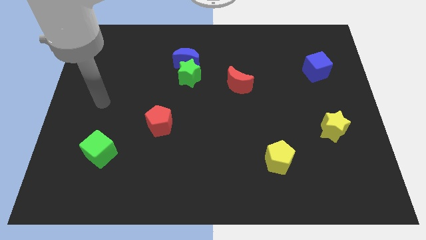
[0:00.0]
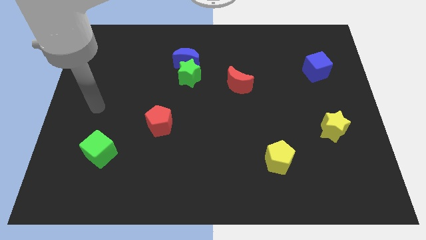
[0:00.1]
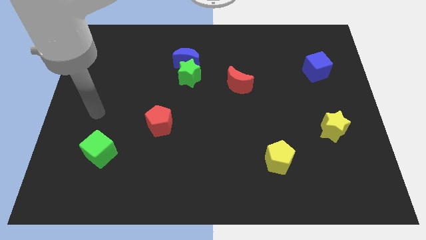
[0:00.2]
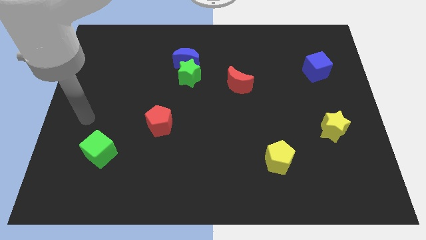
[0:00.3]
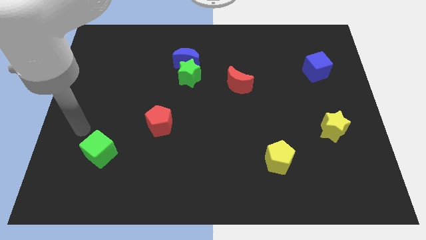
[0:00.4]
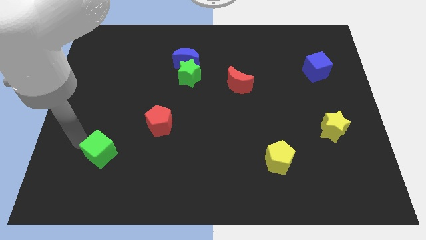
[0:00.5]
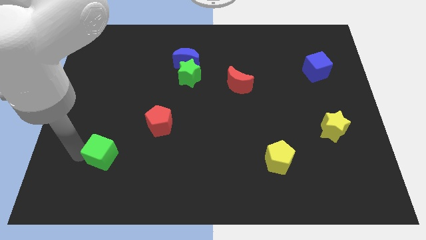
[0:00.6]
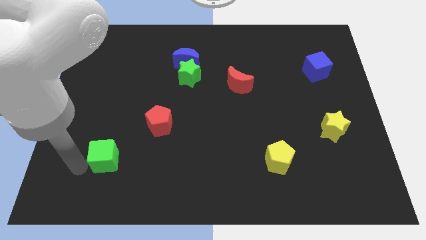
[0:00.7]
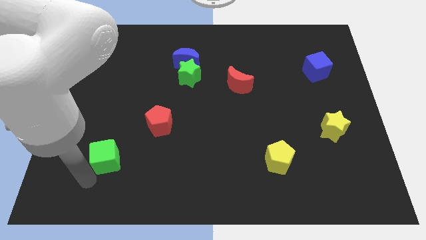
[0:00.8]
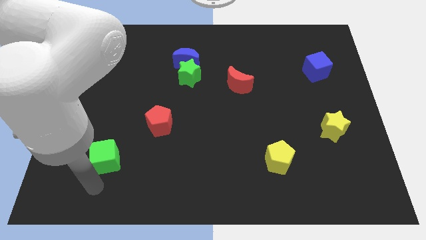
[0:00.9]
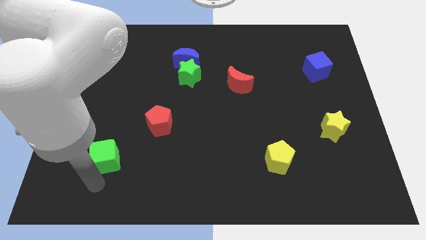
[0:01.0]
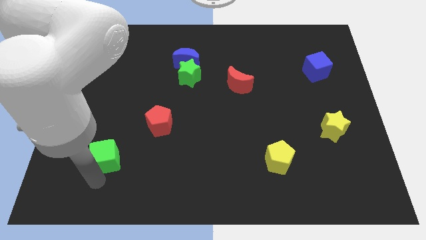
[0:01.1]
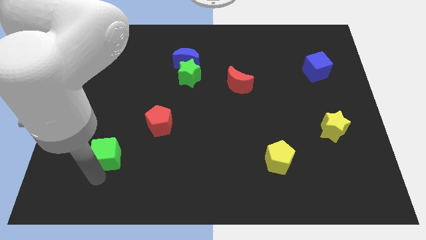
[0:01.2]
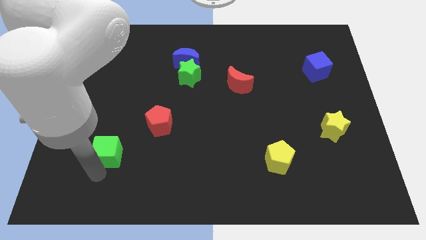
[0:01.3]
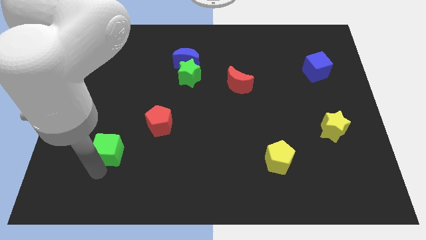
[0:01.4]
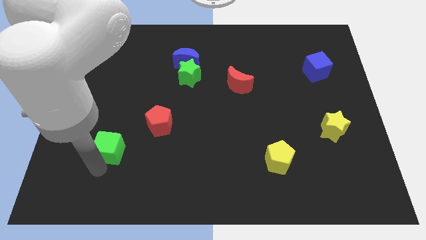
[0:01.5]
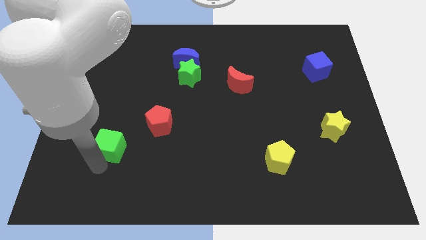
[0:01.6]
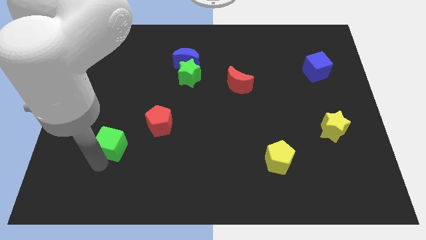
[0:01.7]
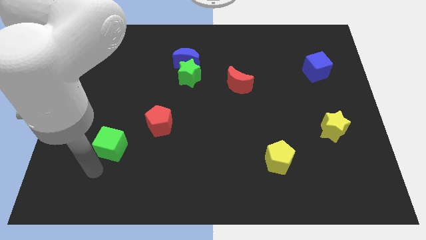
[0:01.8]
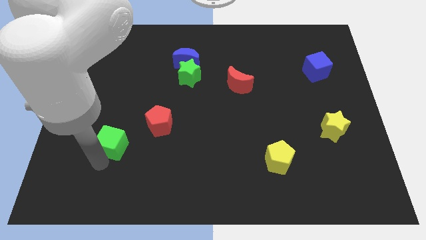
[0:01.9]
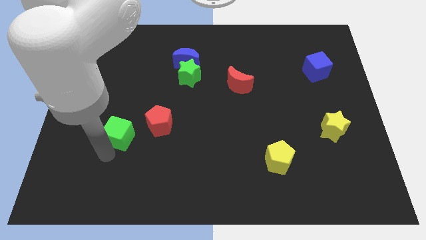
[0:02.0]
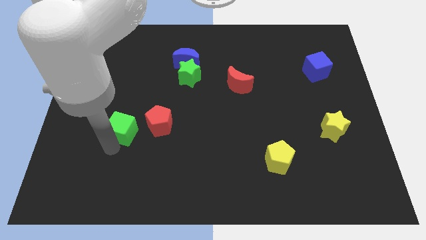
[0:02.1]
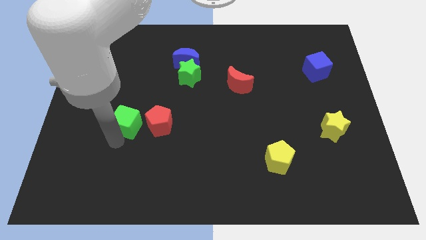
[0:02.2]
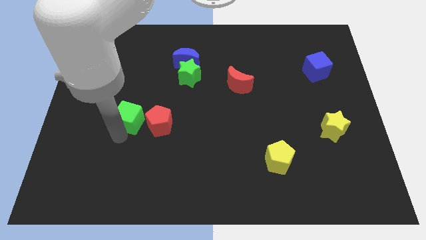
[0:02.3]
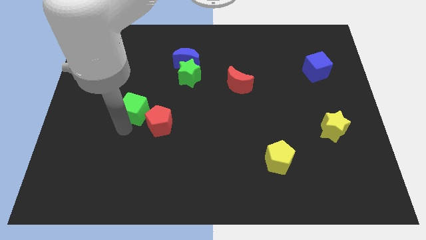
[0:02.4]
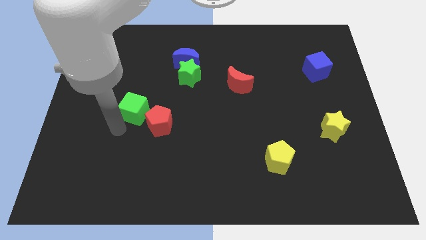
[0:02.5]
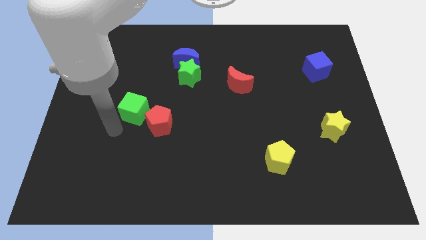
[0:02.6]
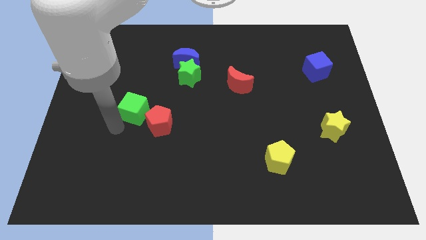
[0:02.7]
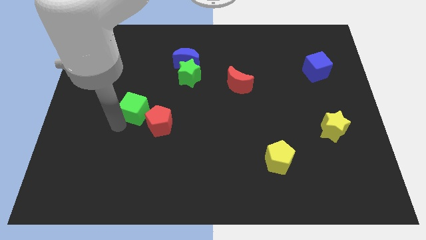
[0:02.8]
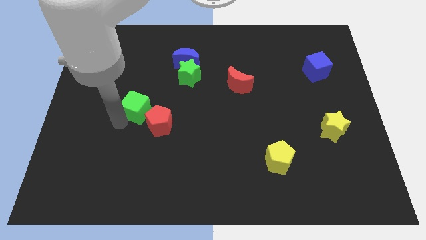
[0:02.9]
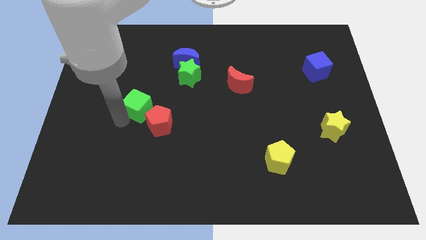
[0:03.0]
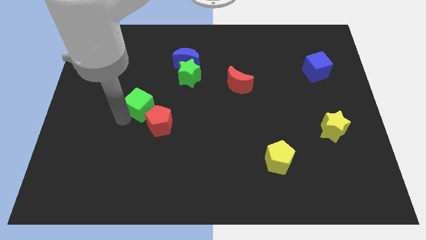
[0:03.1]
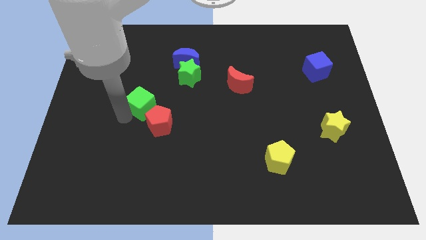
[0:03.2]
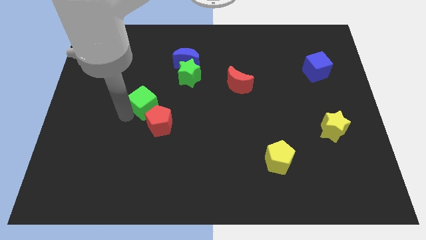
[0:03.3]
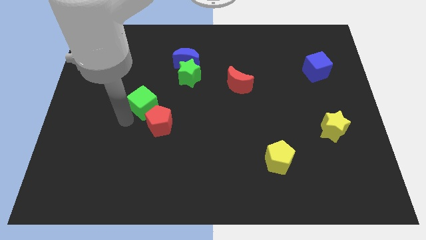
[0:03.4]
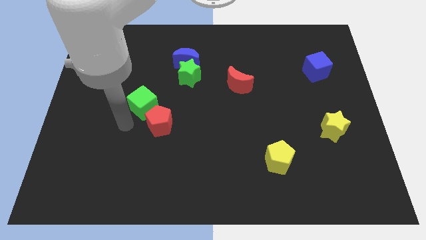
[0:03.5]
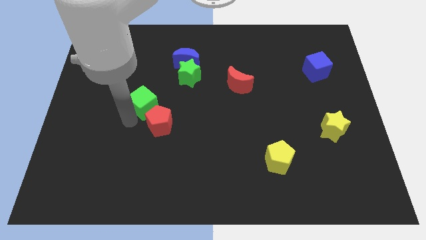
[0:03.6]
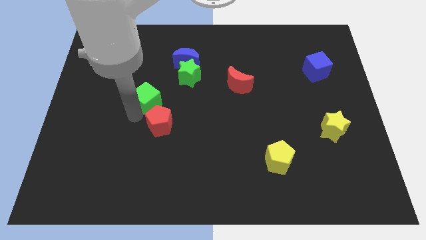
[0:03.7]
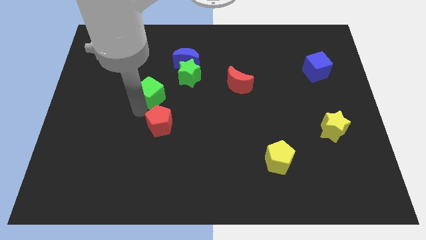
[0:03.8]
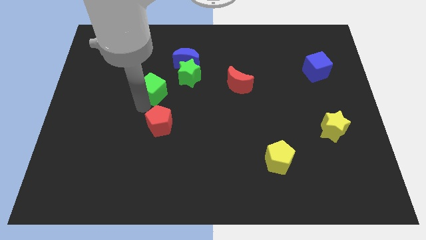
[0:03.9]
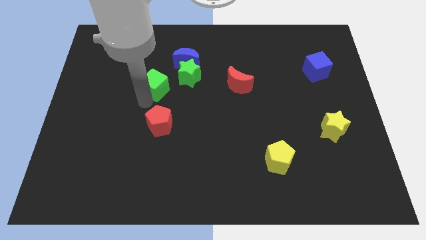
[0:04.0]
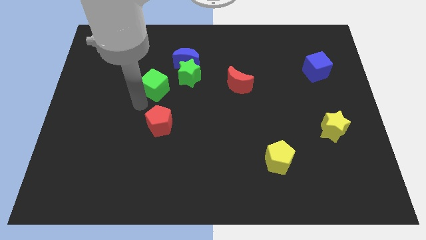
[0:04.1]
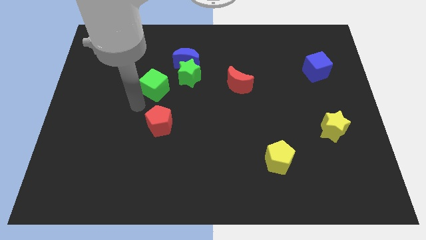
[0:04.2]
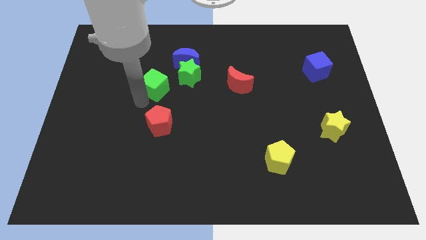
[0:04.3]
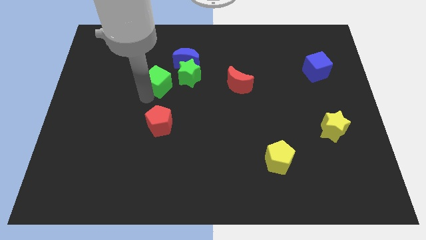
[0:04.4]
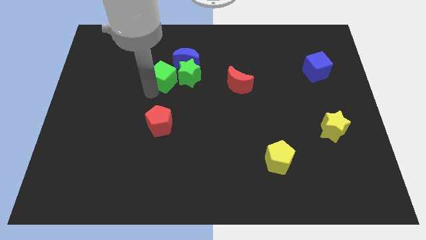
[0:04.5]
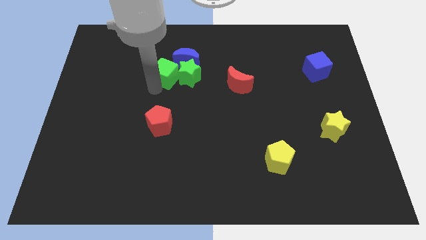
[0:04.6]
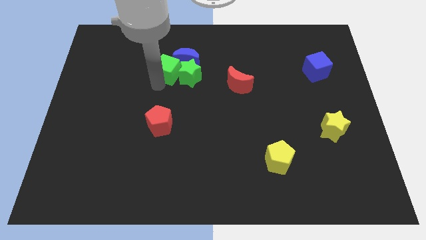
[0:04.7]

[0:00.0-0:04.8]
move the green cube close to the blue moon

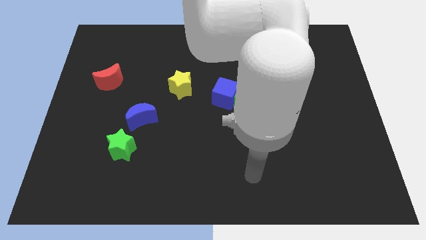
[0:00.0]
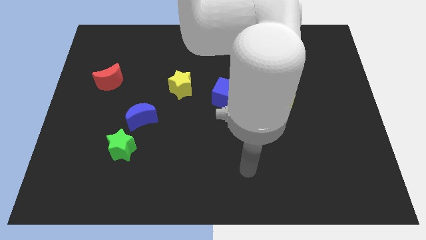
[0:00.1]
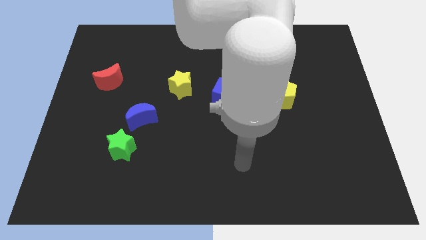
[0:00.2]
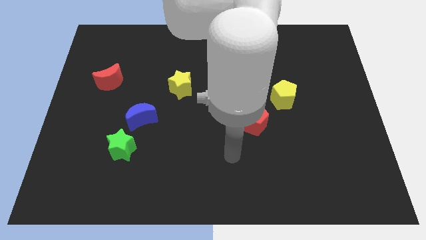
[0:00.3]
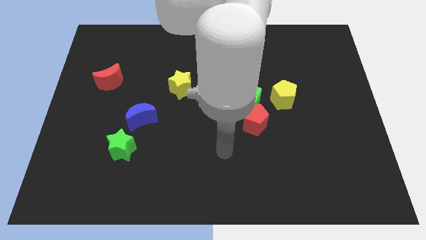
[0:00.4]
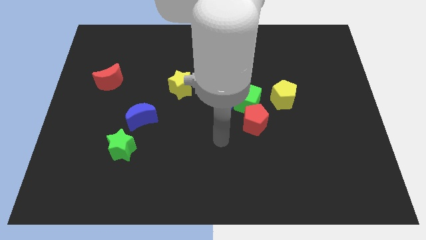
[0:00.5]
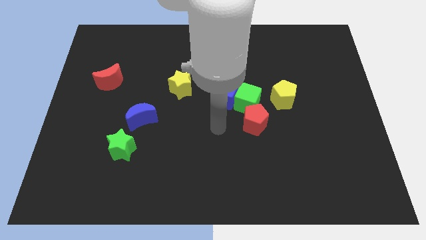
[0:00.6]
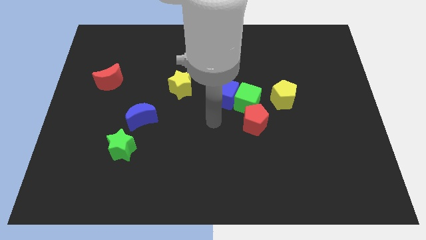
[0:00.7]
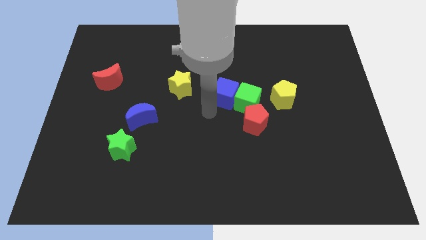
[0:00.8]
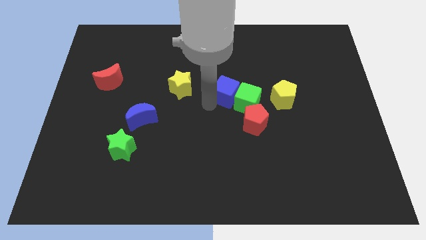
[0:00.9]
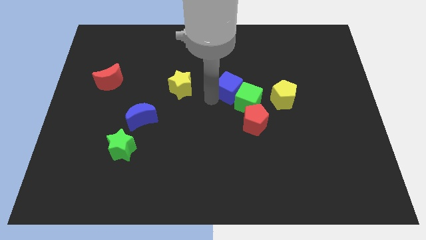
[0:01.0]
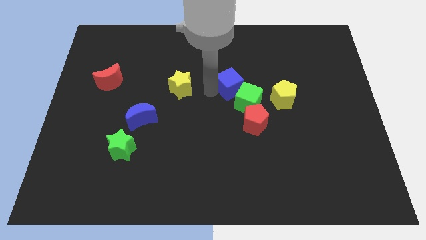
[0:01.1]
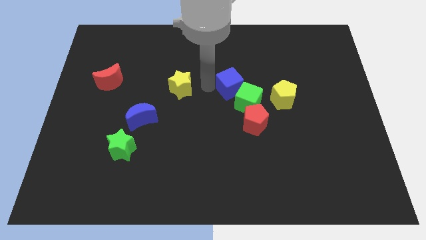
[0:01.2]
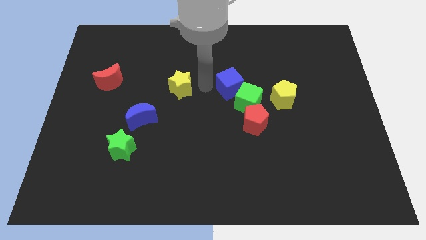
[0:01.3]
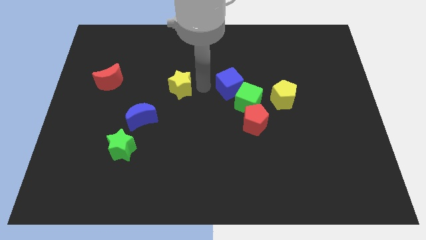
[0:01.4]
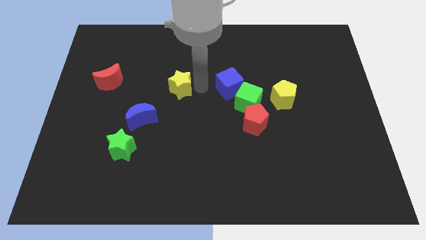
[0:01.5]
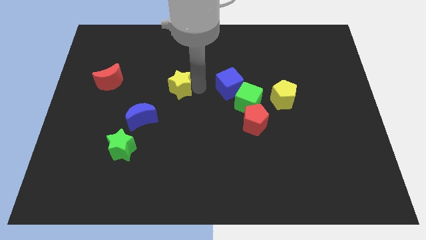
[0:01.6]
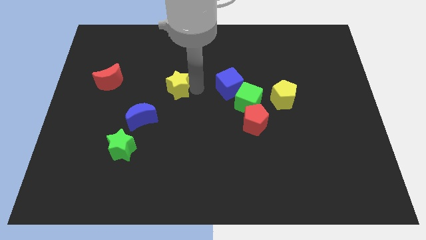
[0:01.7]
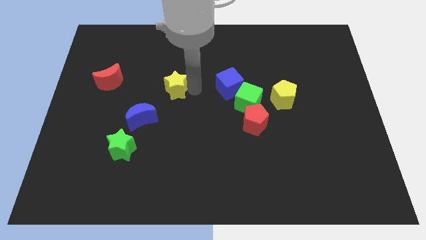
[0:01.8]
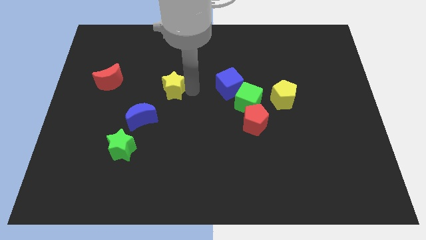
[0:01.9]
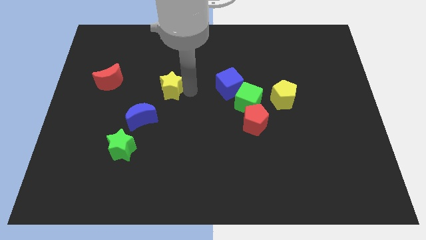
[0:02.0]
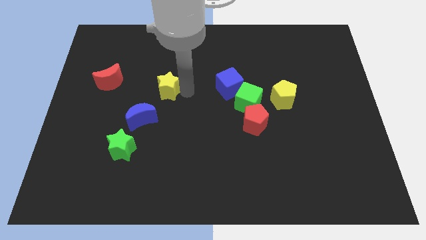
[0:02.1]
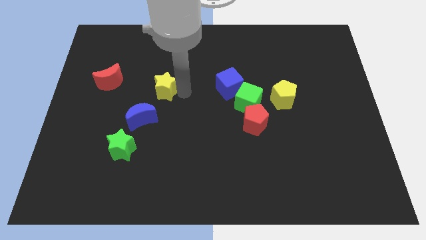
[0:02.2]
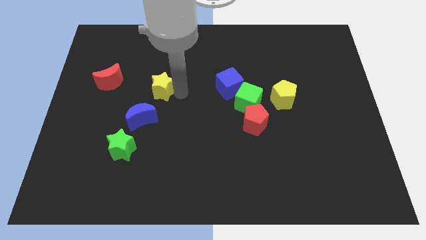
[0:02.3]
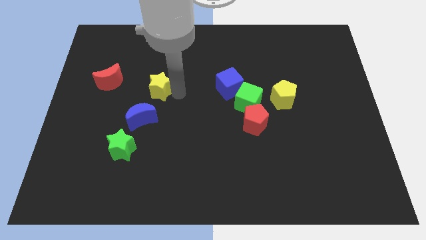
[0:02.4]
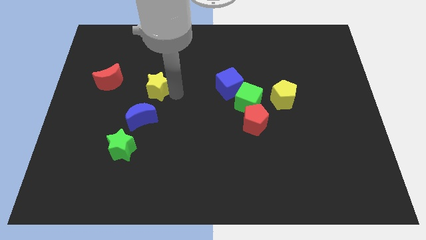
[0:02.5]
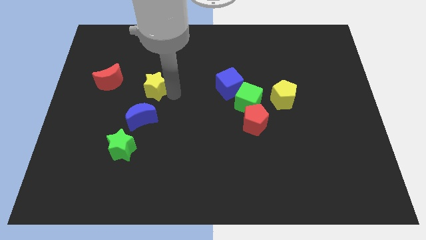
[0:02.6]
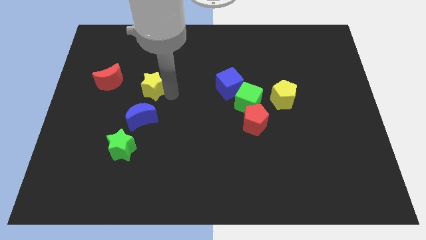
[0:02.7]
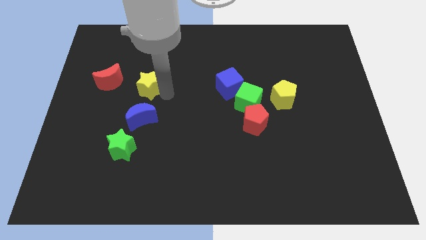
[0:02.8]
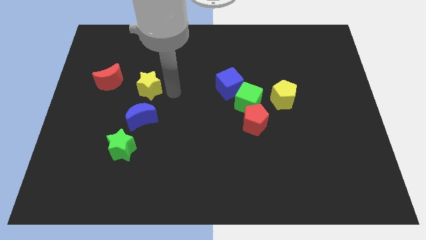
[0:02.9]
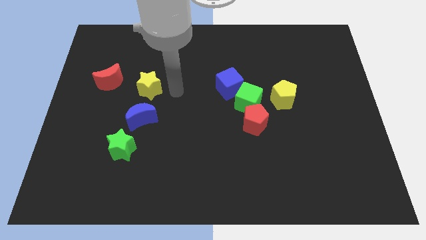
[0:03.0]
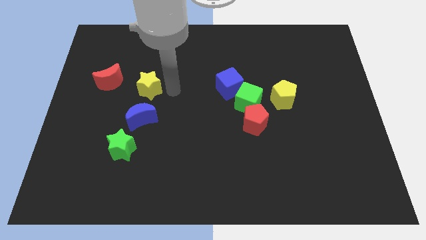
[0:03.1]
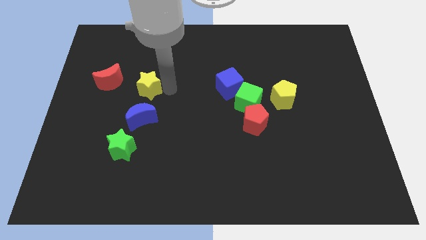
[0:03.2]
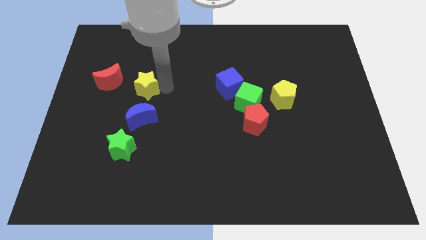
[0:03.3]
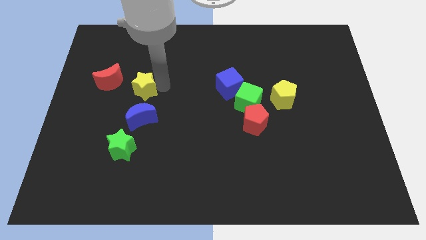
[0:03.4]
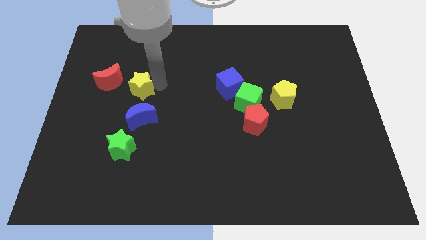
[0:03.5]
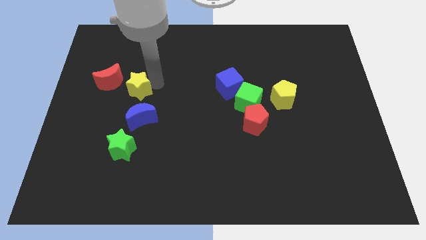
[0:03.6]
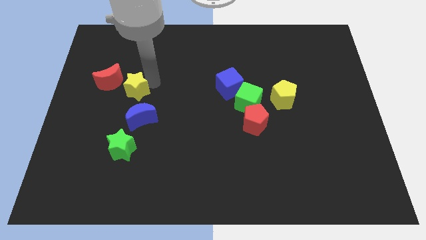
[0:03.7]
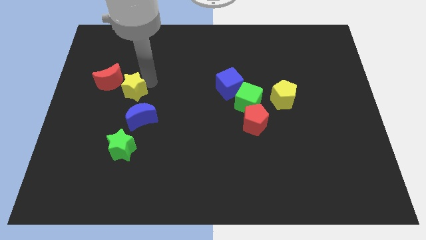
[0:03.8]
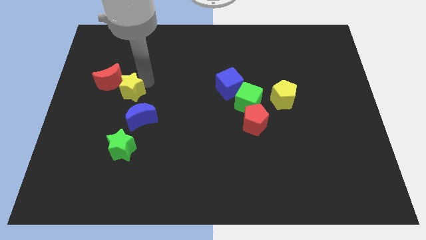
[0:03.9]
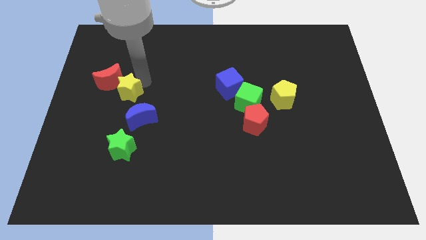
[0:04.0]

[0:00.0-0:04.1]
move the yellow star close to the red moon
